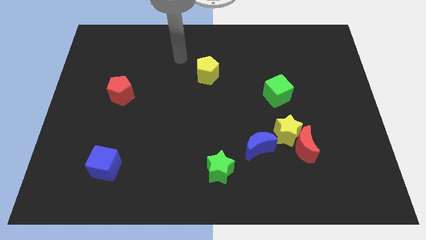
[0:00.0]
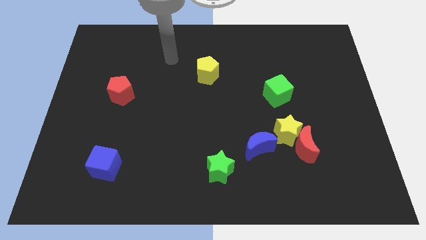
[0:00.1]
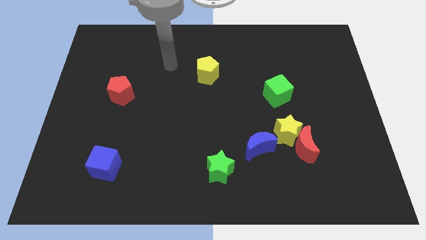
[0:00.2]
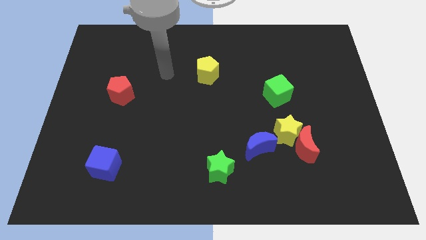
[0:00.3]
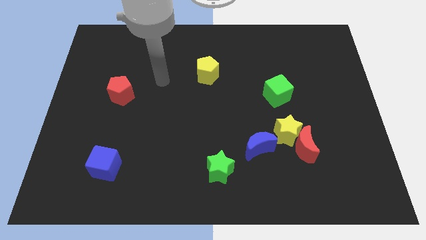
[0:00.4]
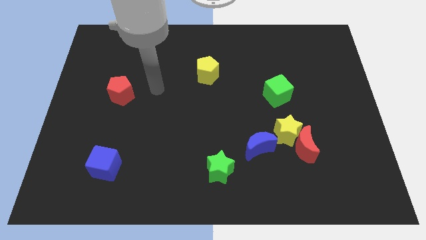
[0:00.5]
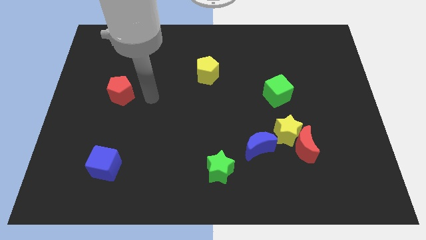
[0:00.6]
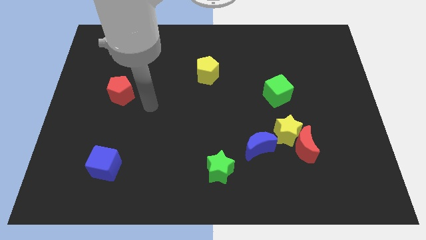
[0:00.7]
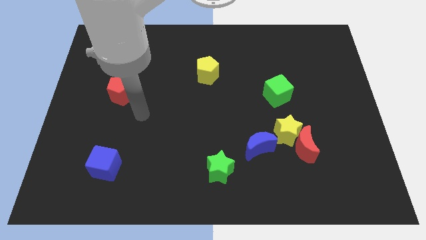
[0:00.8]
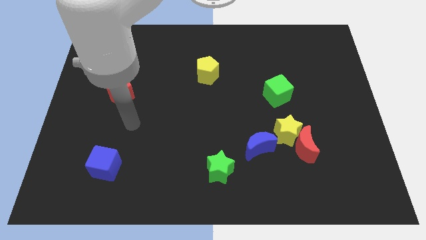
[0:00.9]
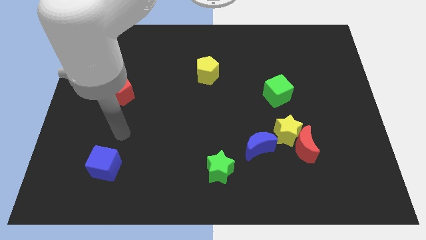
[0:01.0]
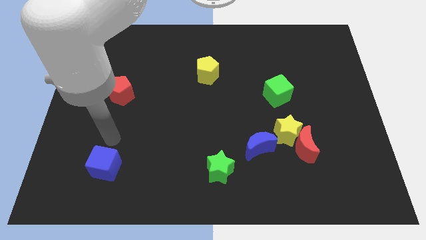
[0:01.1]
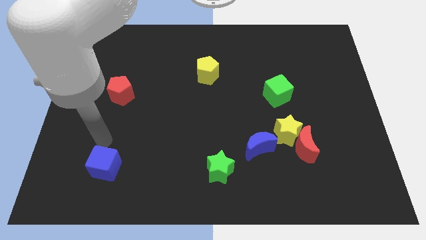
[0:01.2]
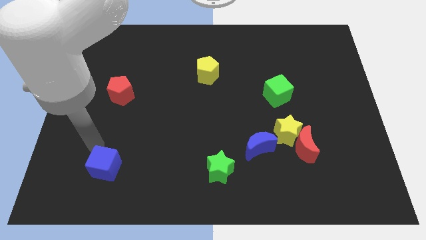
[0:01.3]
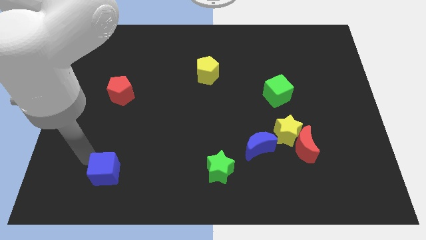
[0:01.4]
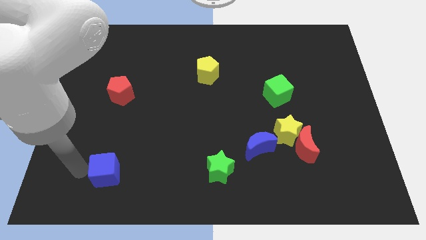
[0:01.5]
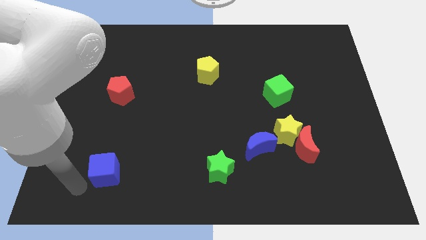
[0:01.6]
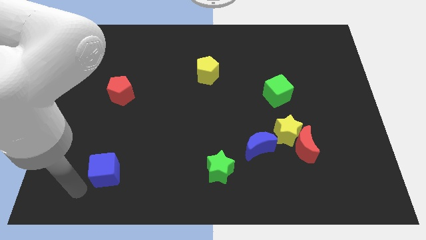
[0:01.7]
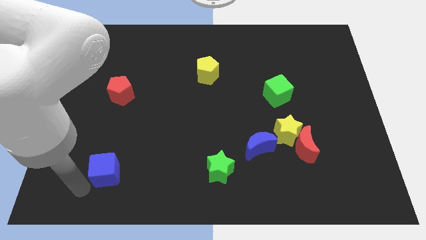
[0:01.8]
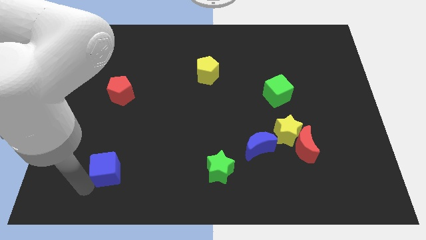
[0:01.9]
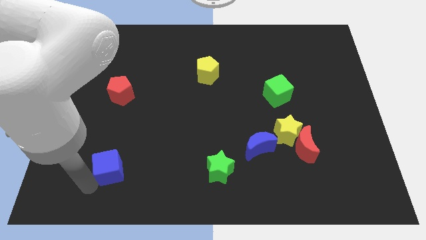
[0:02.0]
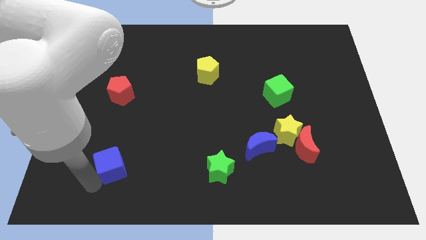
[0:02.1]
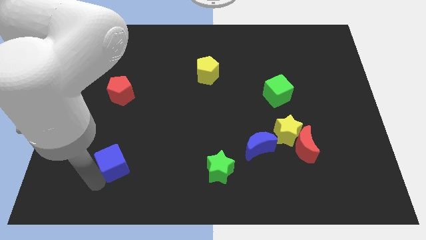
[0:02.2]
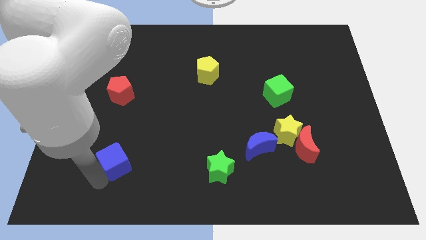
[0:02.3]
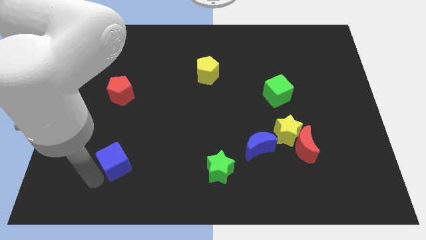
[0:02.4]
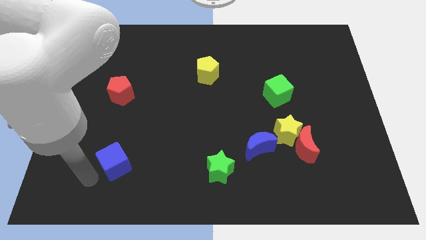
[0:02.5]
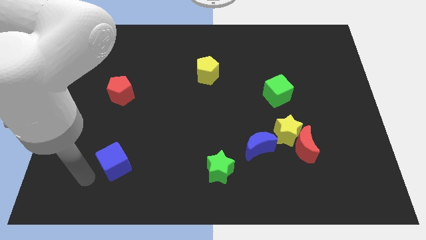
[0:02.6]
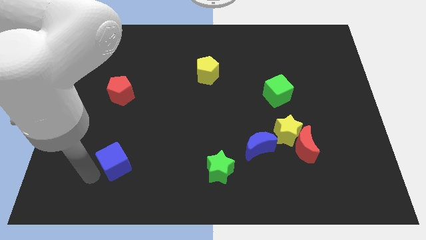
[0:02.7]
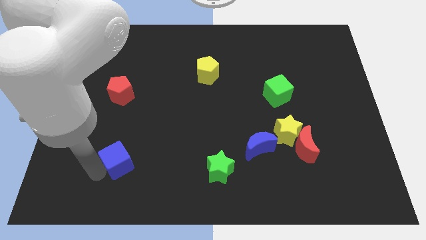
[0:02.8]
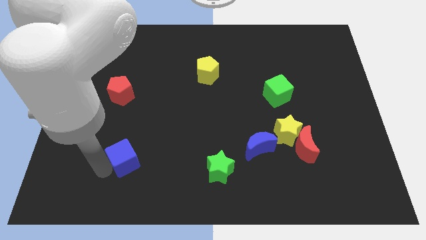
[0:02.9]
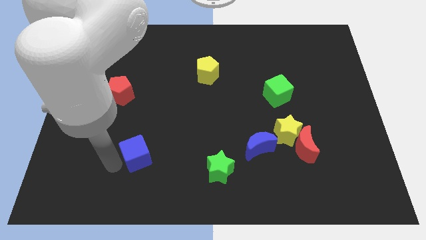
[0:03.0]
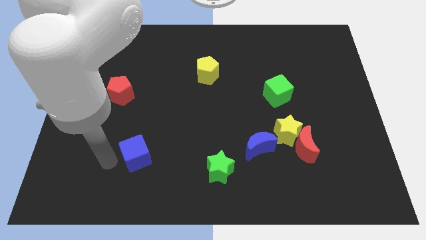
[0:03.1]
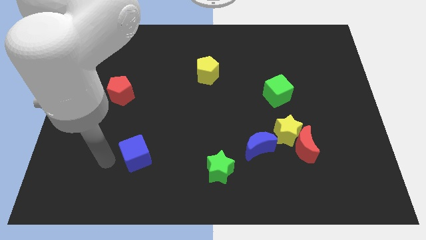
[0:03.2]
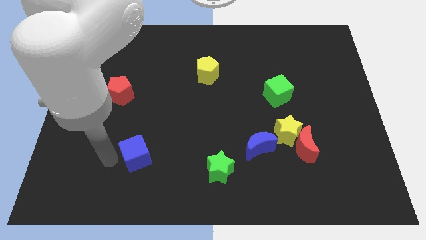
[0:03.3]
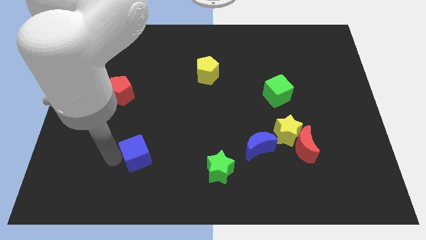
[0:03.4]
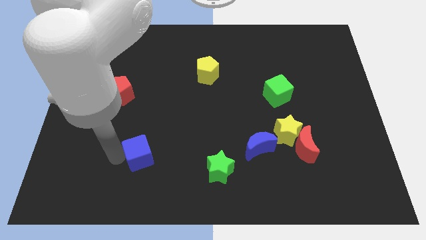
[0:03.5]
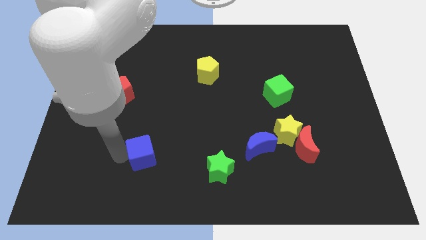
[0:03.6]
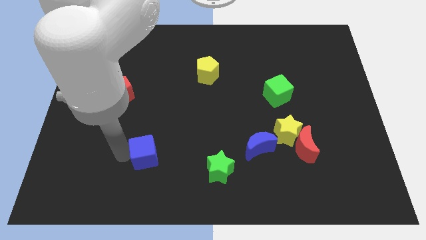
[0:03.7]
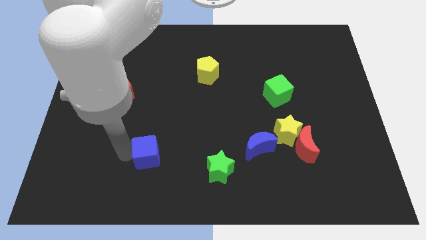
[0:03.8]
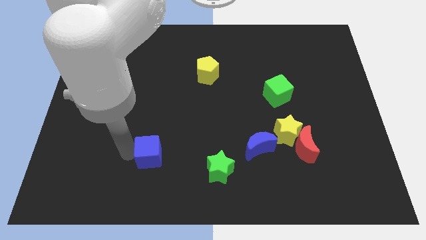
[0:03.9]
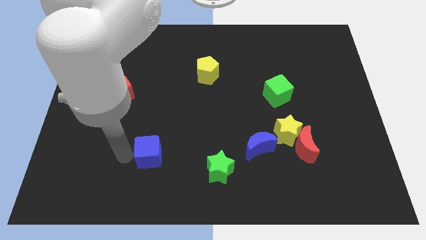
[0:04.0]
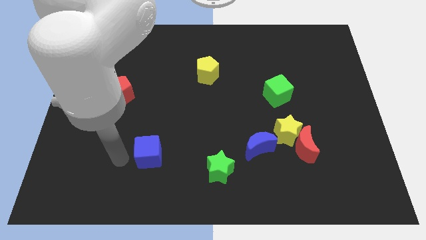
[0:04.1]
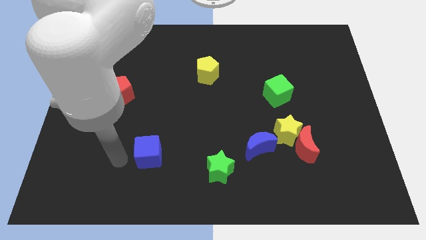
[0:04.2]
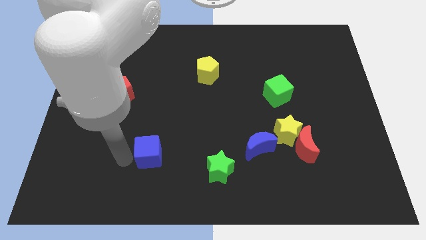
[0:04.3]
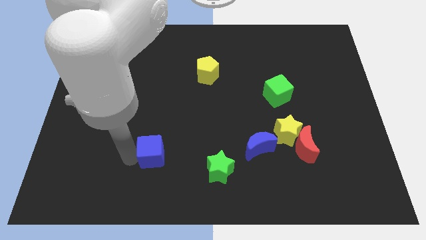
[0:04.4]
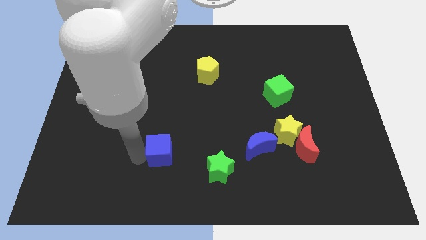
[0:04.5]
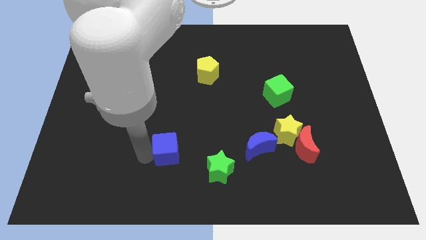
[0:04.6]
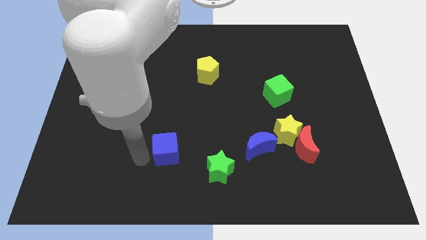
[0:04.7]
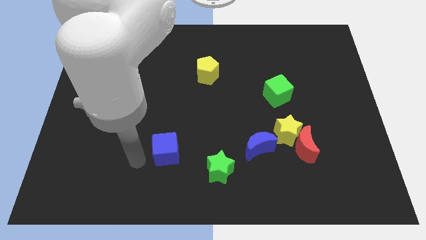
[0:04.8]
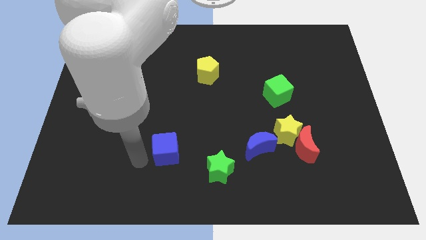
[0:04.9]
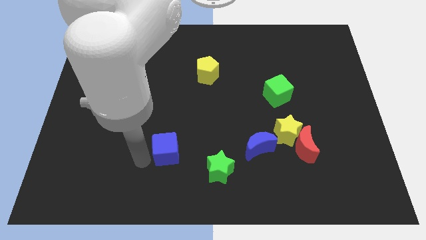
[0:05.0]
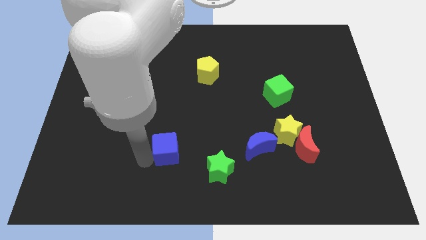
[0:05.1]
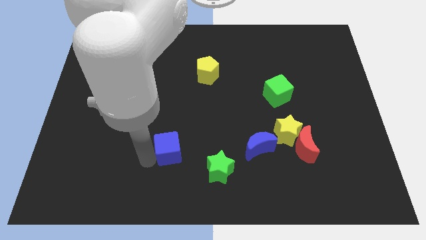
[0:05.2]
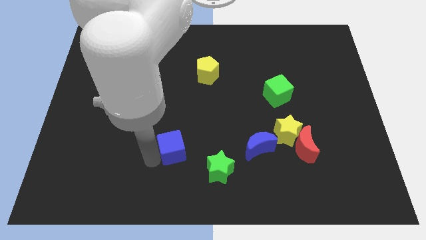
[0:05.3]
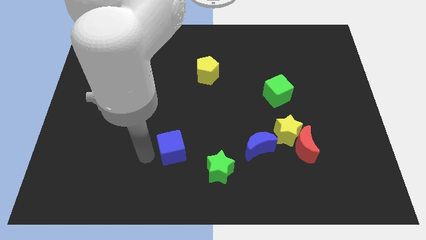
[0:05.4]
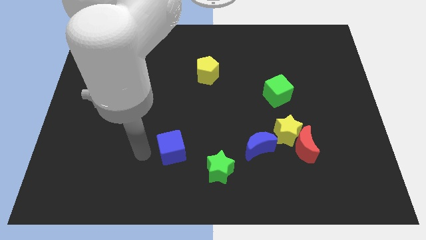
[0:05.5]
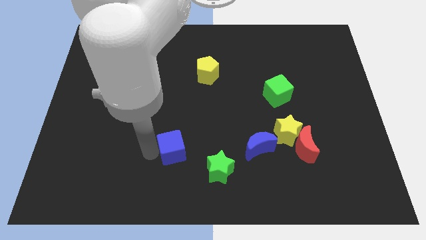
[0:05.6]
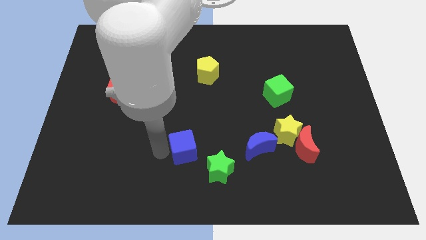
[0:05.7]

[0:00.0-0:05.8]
push the blue cube to the left side of the blue moon

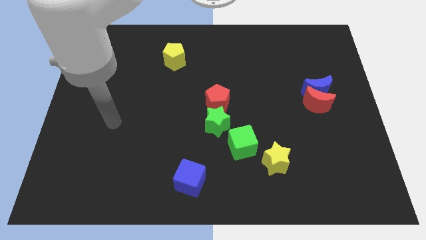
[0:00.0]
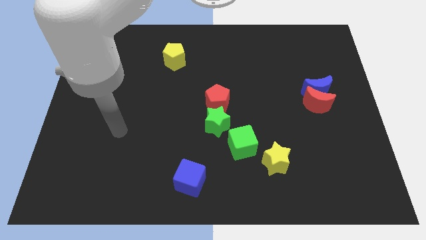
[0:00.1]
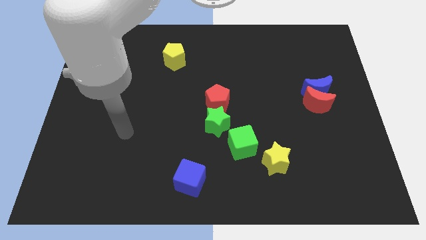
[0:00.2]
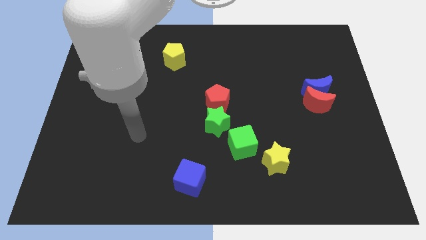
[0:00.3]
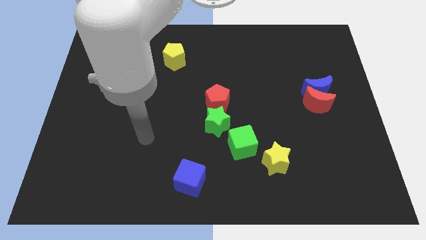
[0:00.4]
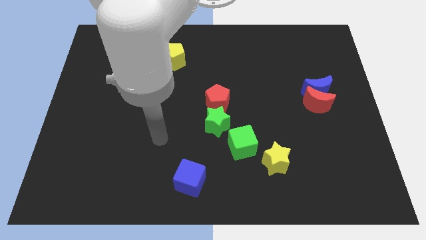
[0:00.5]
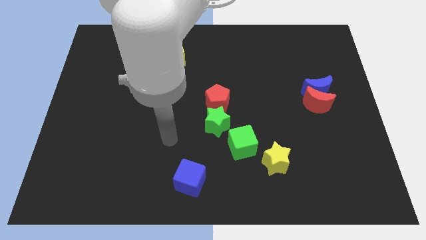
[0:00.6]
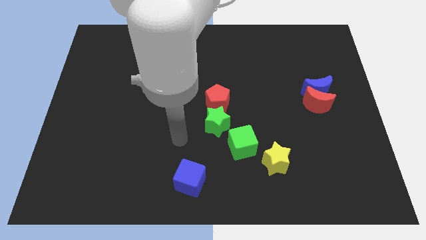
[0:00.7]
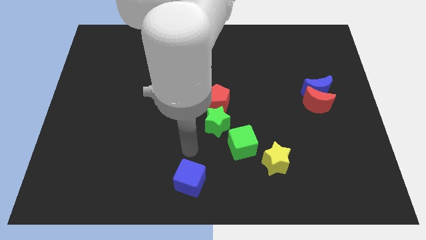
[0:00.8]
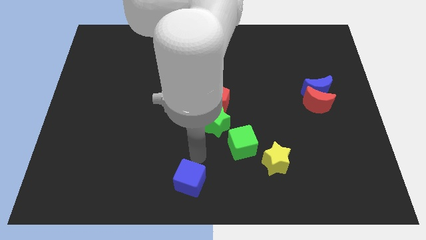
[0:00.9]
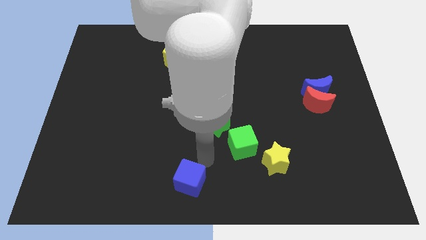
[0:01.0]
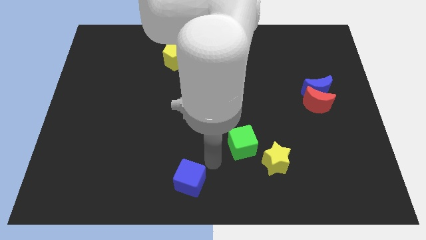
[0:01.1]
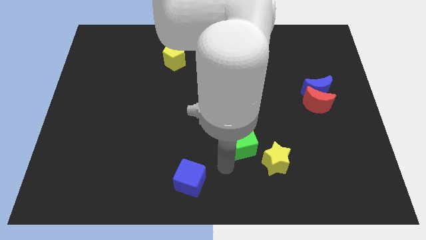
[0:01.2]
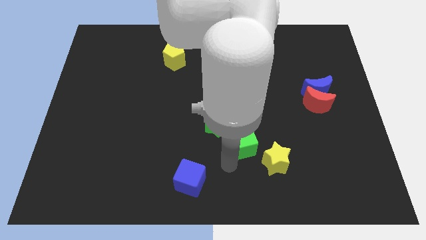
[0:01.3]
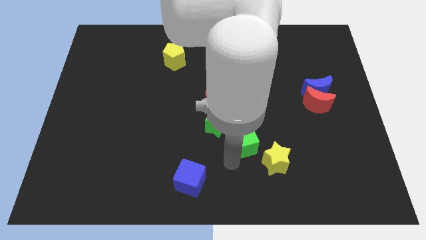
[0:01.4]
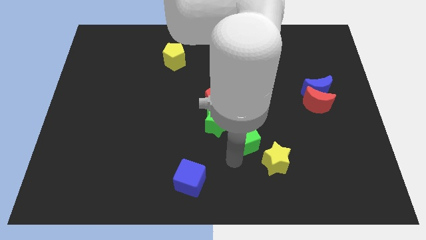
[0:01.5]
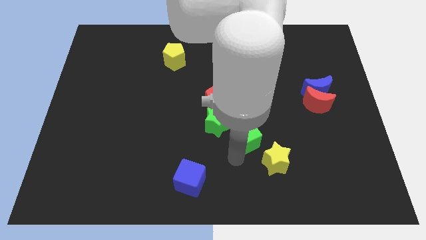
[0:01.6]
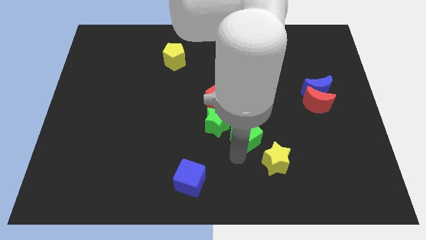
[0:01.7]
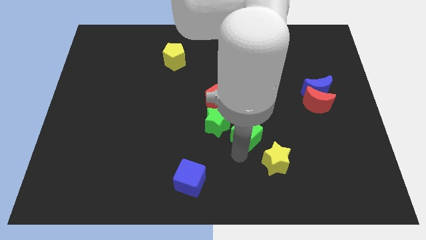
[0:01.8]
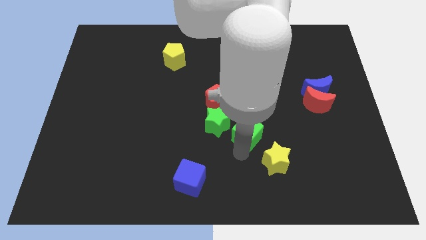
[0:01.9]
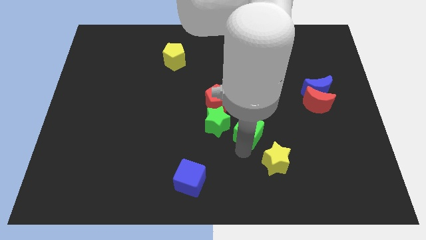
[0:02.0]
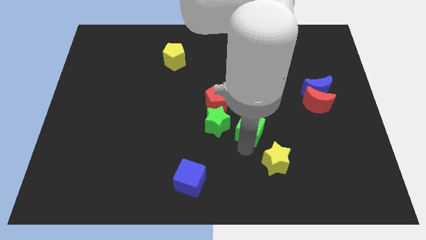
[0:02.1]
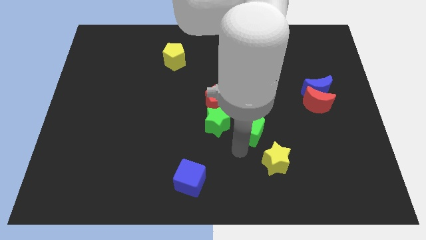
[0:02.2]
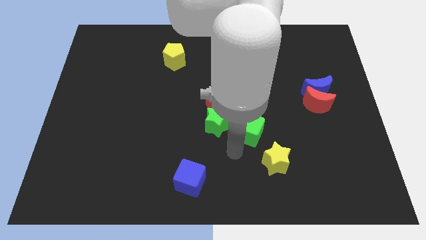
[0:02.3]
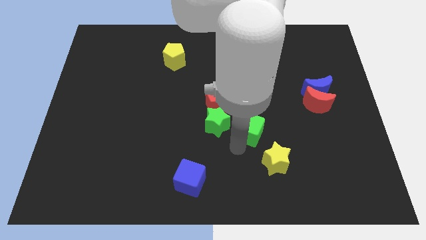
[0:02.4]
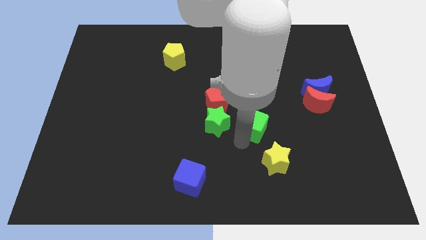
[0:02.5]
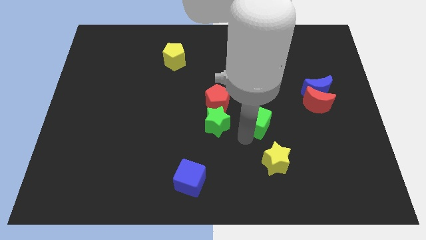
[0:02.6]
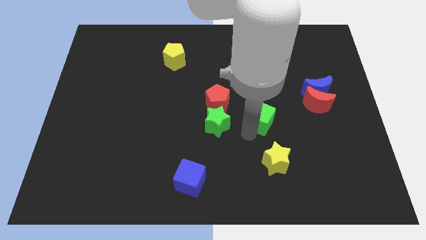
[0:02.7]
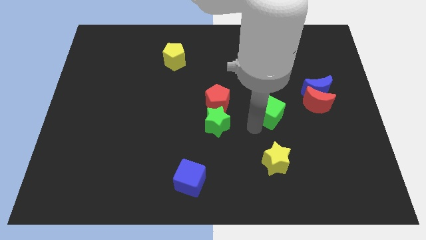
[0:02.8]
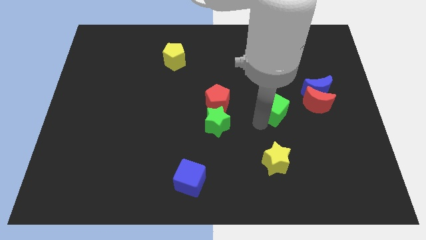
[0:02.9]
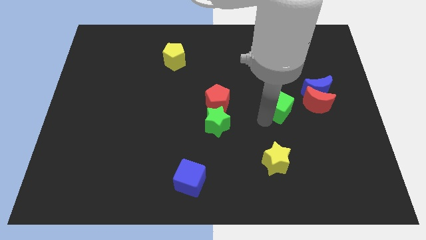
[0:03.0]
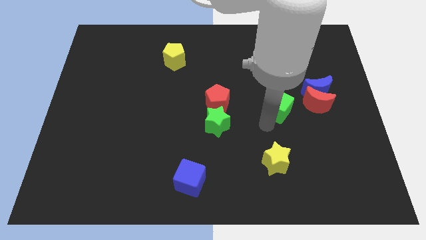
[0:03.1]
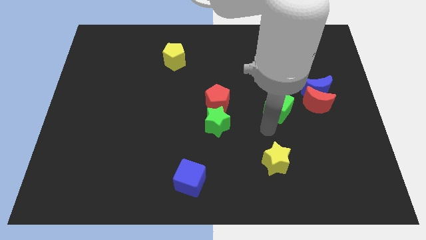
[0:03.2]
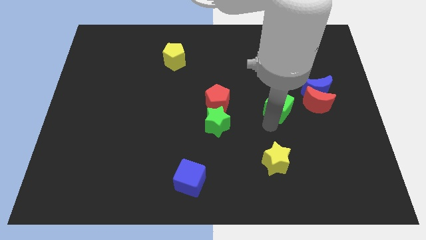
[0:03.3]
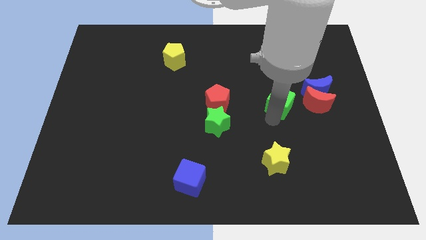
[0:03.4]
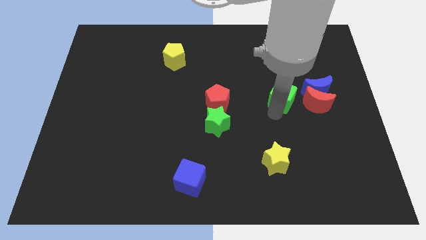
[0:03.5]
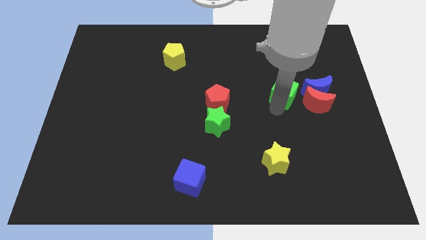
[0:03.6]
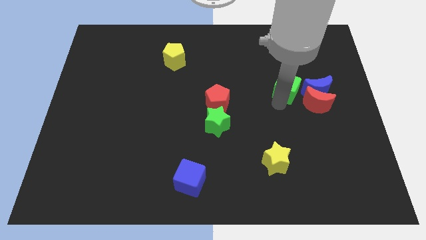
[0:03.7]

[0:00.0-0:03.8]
move the green cube to the top left side of the blue moon
